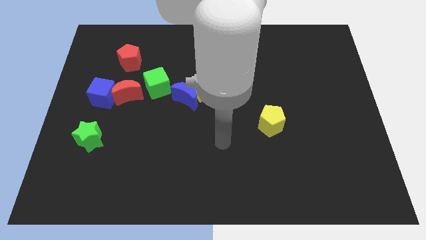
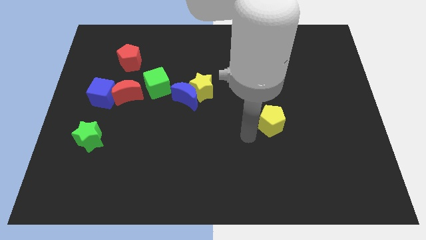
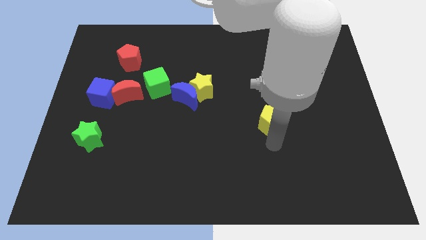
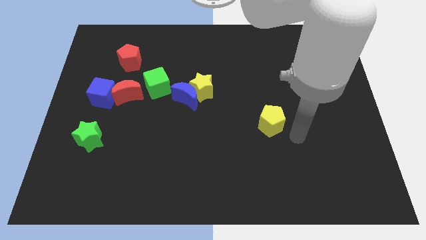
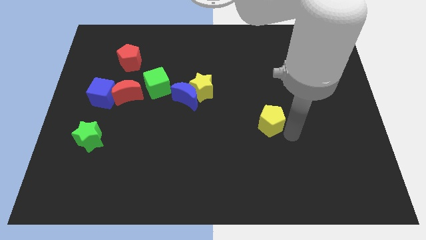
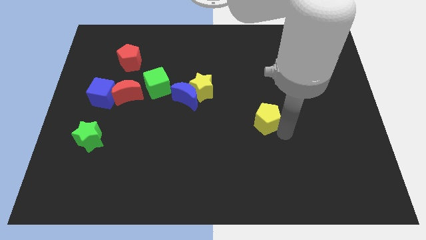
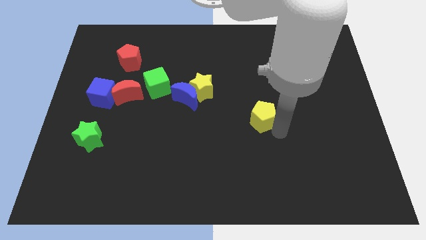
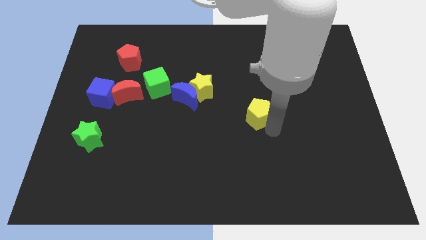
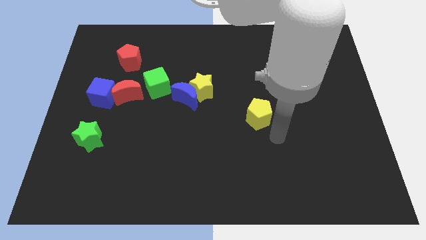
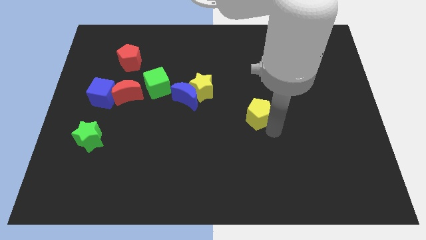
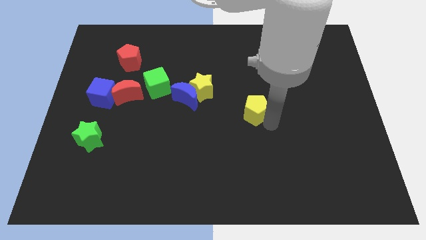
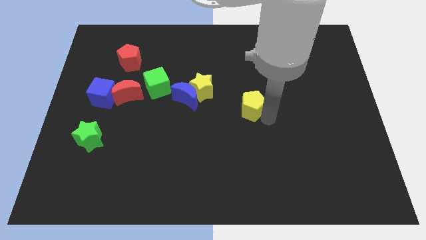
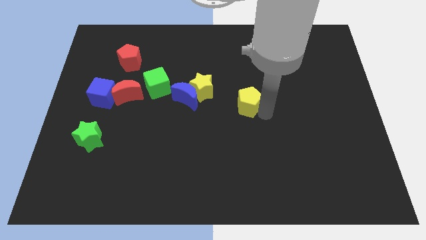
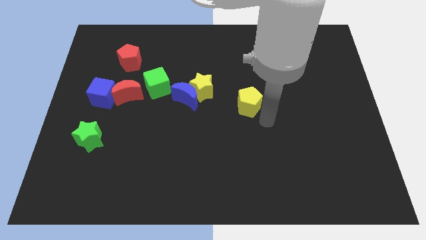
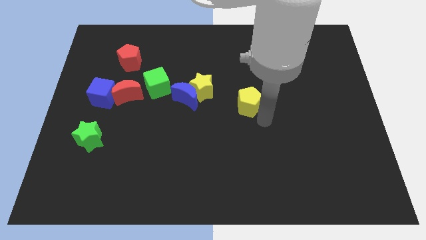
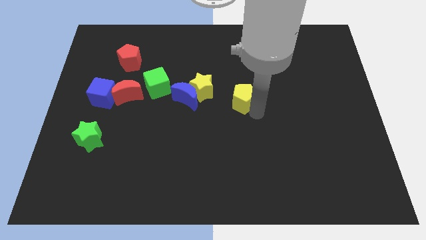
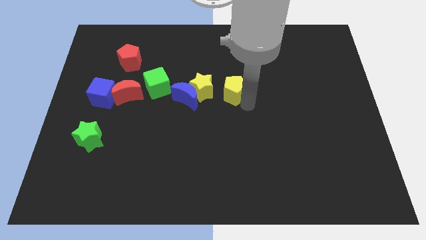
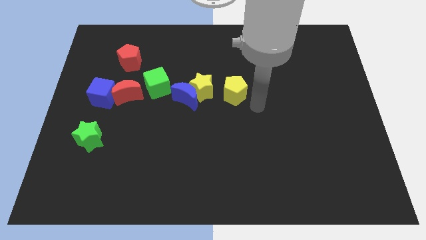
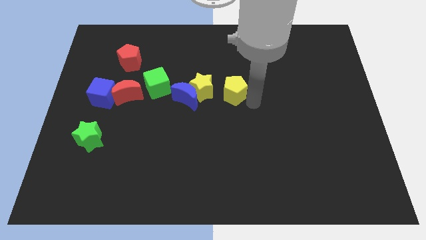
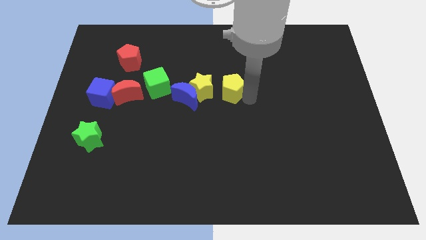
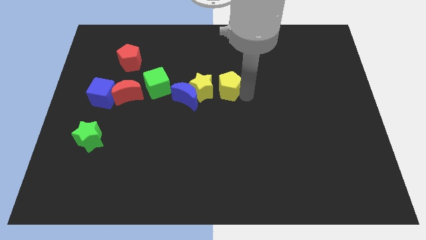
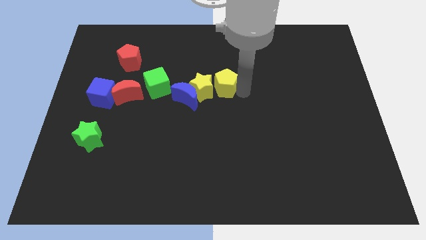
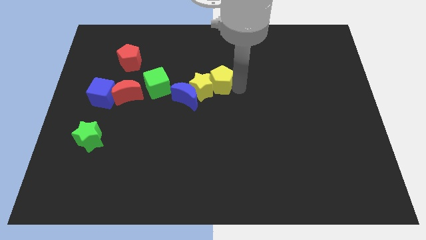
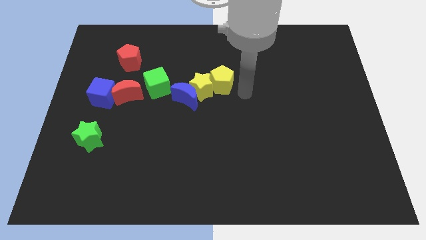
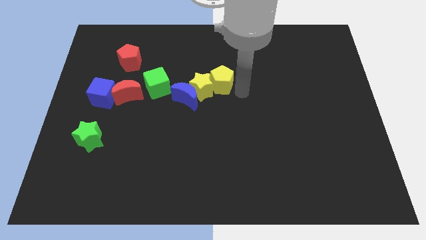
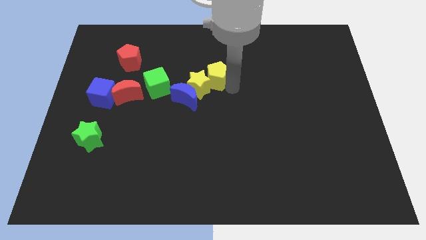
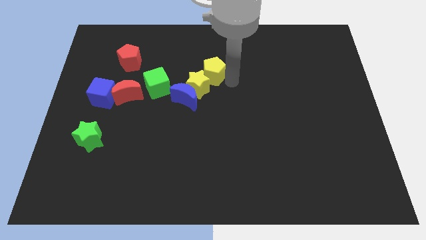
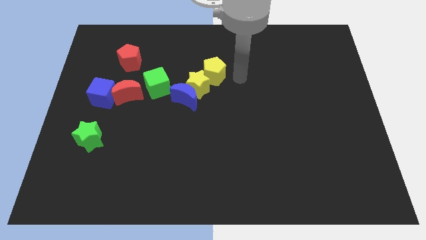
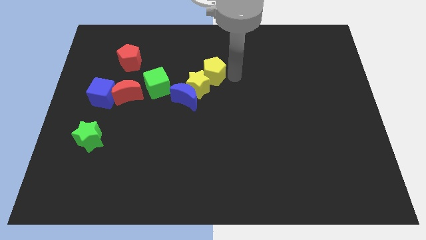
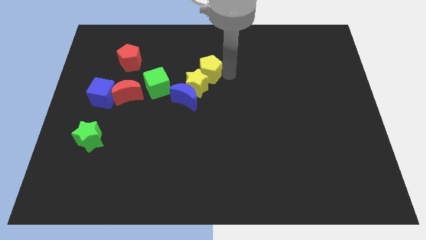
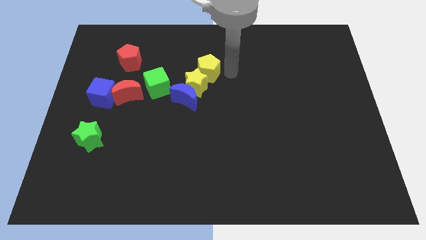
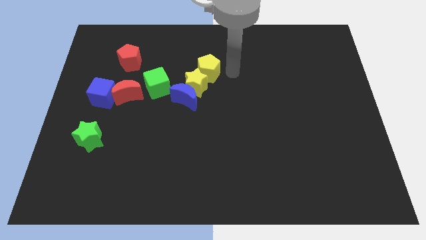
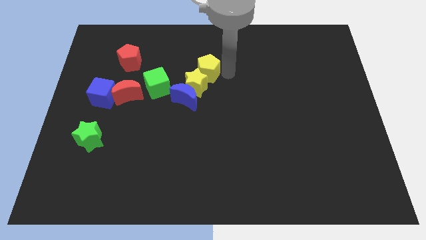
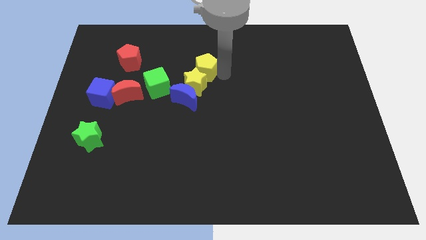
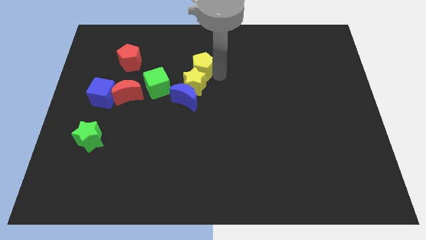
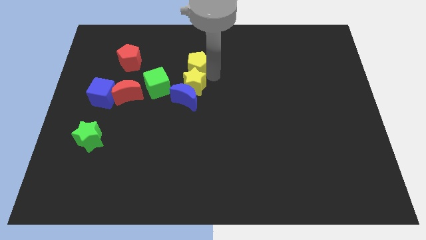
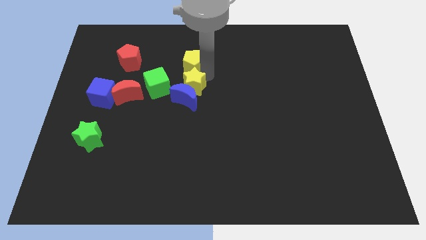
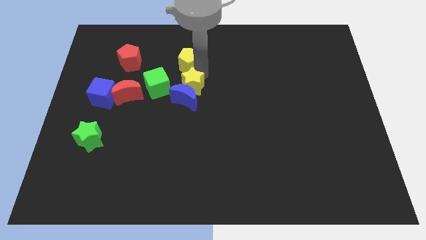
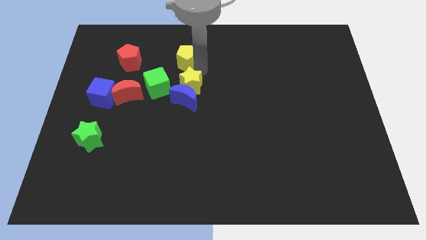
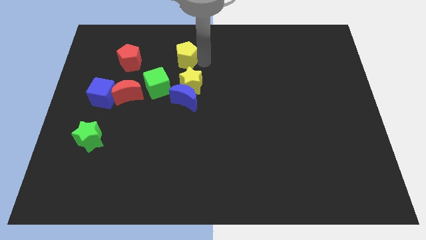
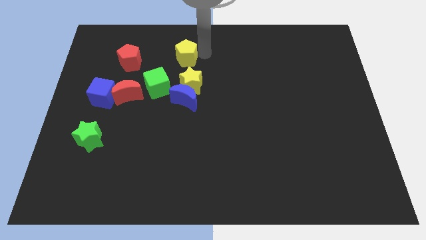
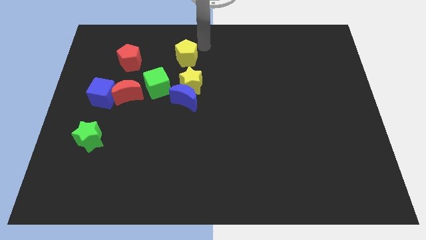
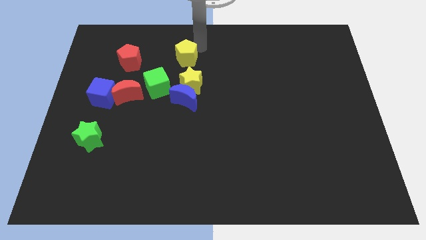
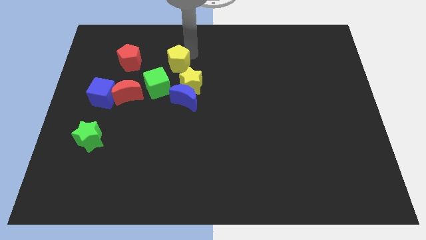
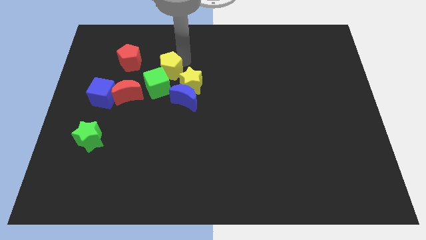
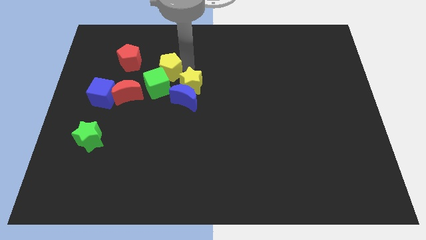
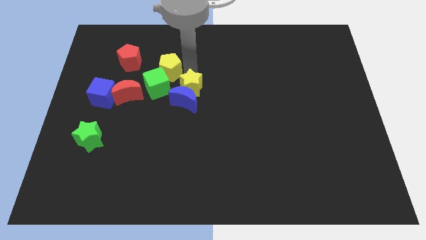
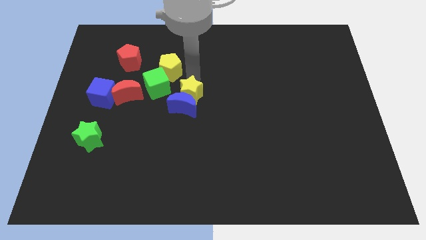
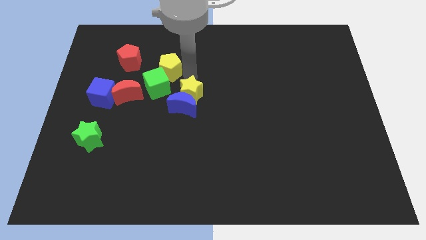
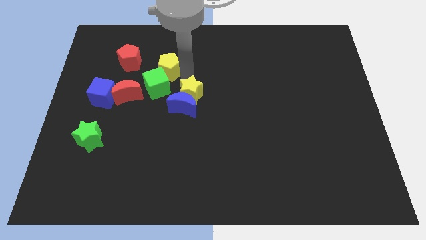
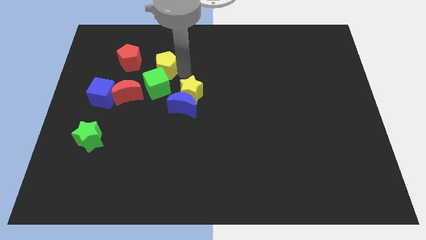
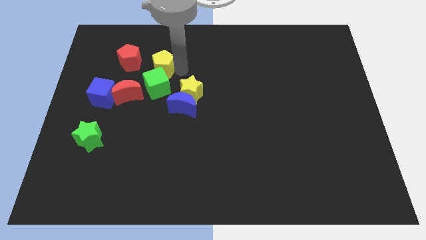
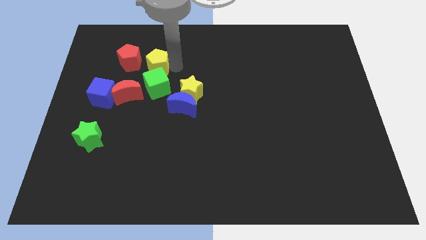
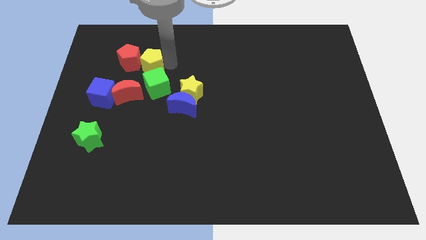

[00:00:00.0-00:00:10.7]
move the yellow pentagon close to the red pentagon

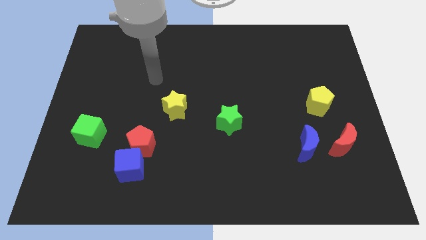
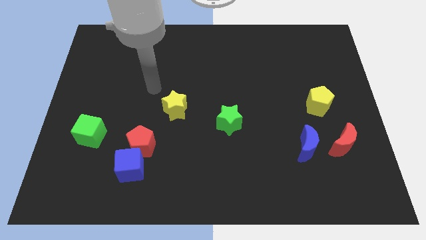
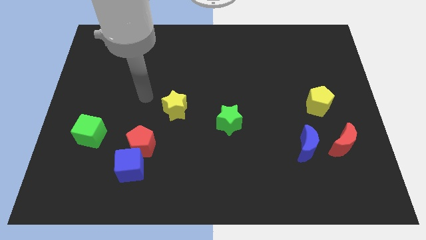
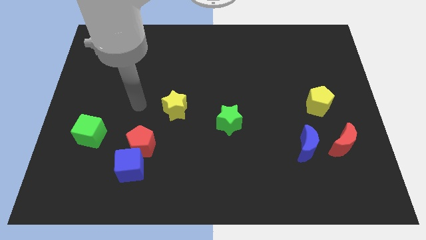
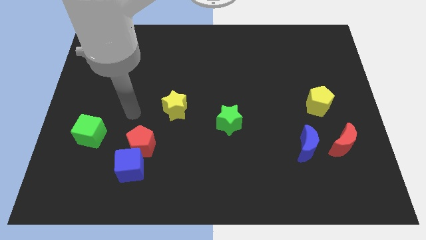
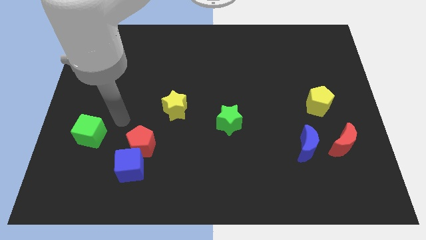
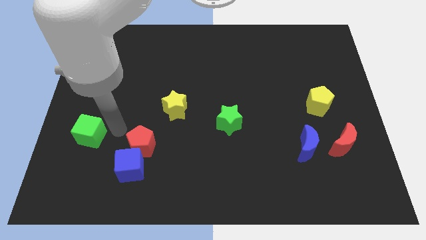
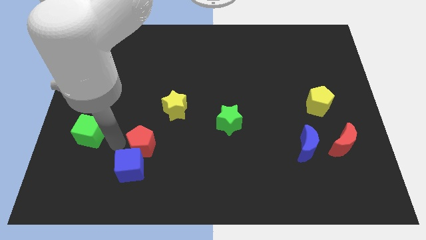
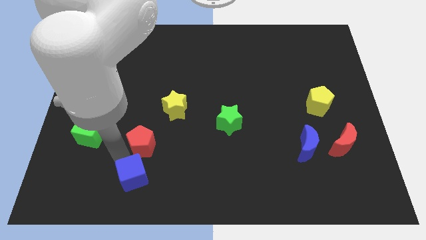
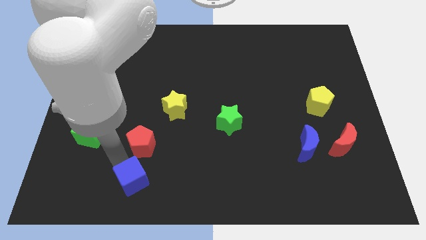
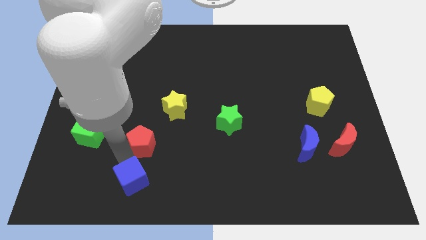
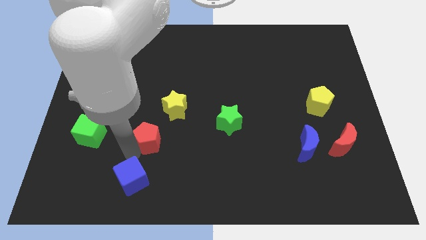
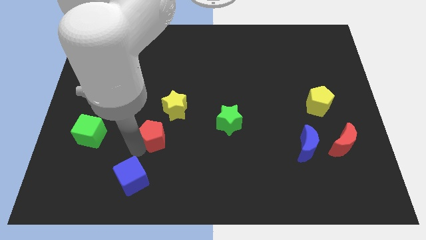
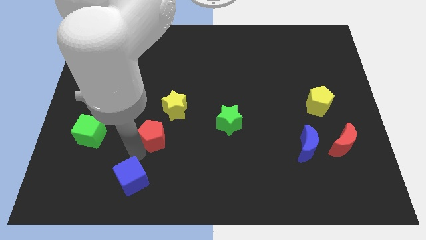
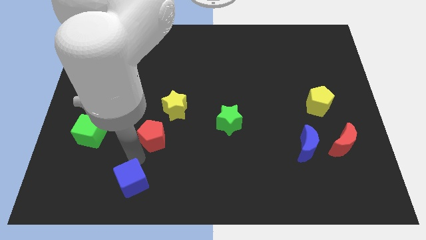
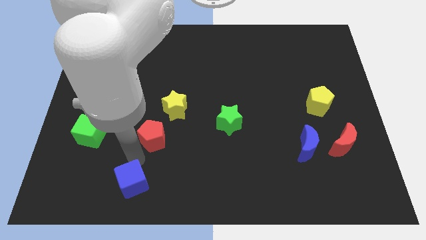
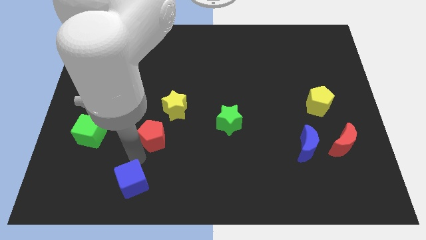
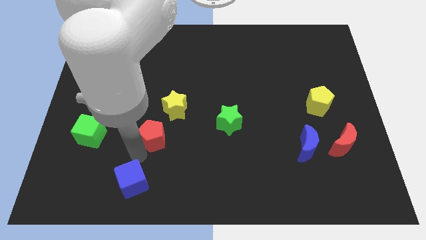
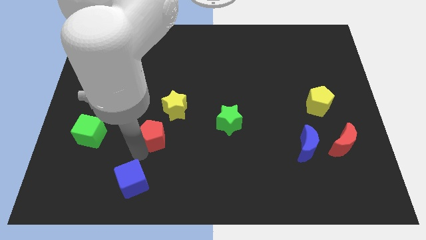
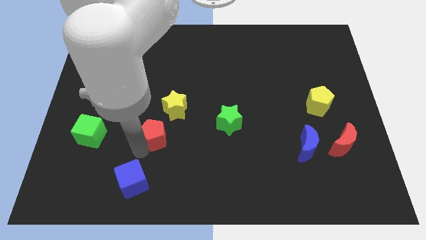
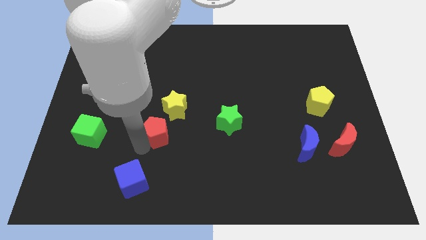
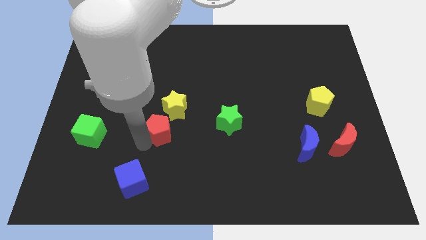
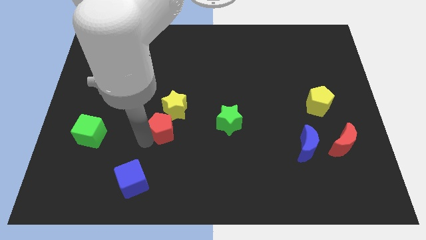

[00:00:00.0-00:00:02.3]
move the red pentagon close to the yellow star

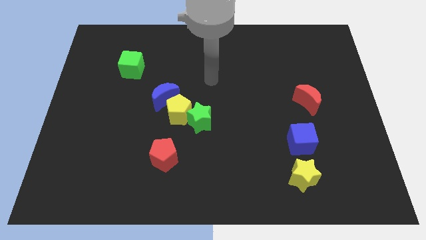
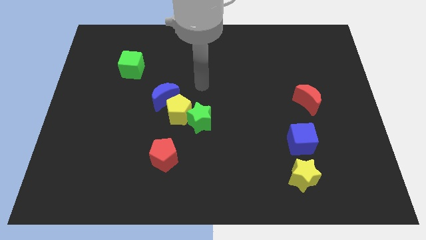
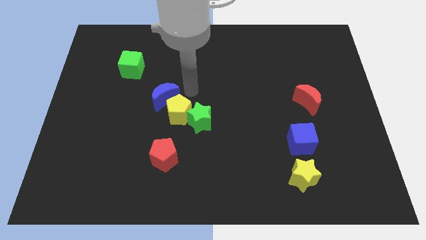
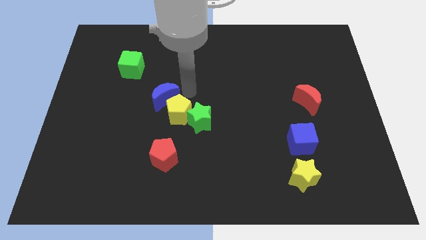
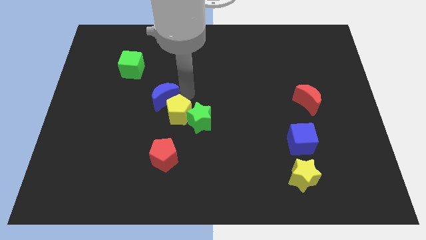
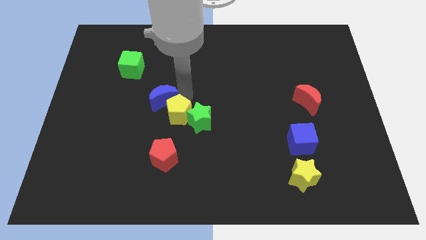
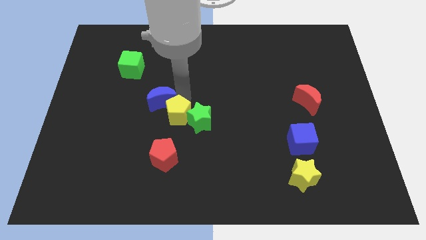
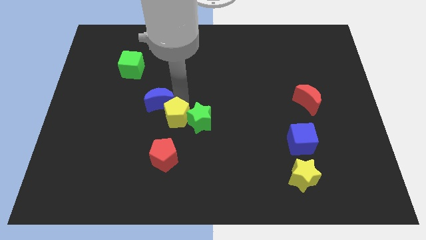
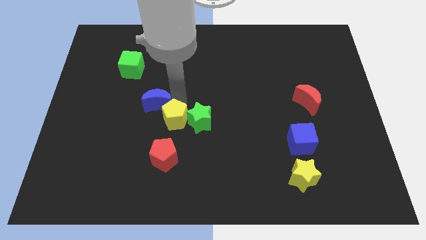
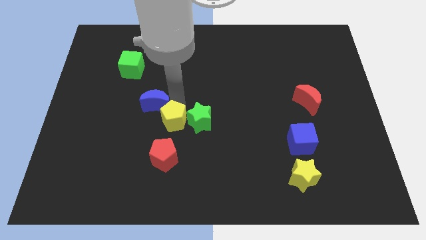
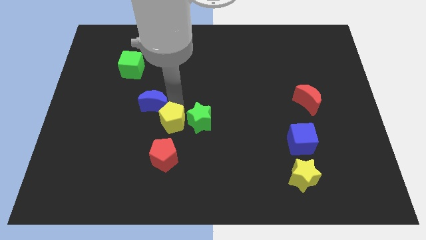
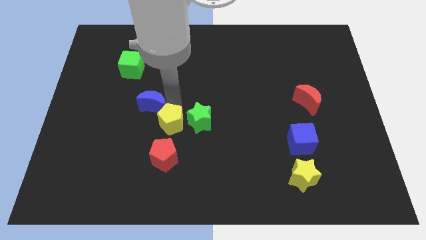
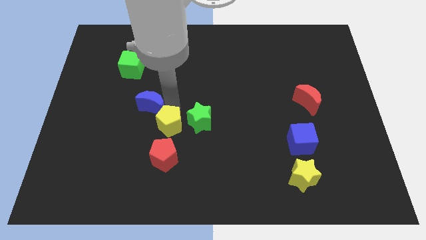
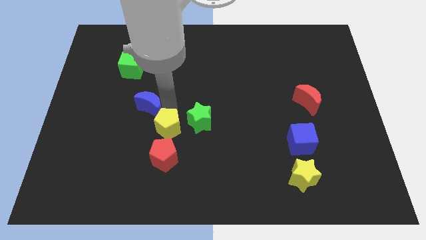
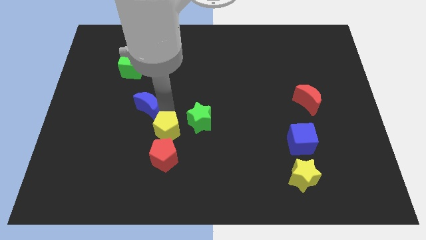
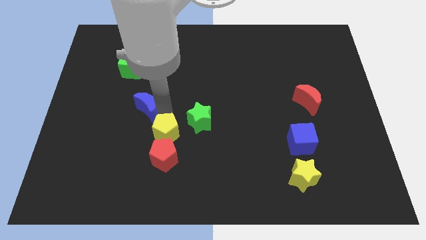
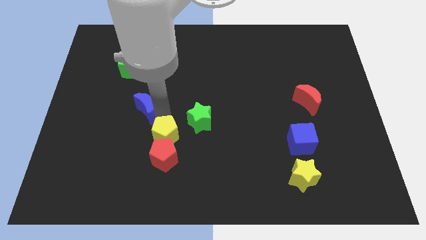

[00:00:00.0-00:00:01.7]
put the yellow pentagon close to the red pentagon
